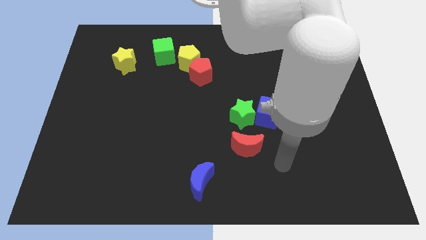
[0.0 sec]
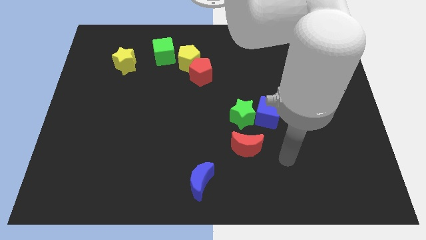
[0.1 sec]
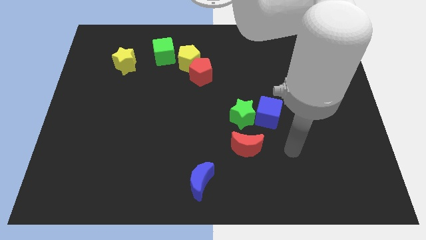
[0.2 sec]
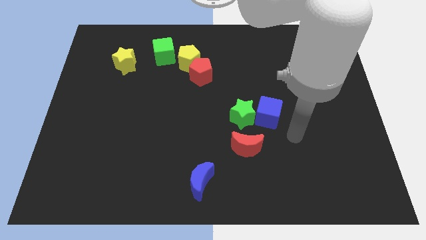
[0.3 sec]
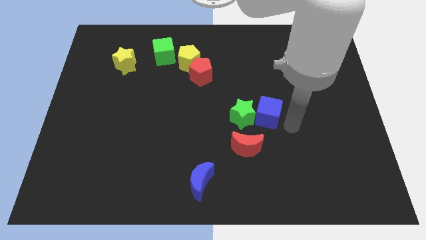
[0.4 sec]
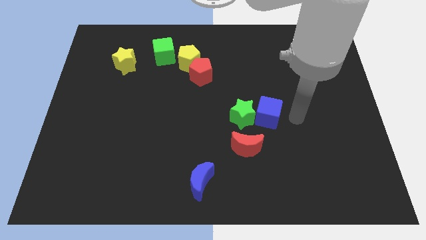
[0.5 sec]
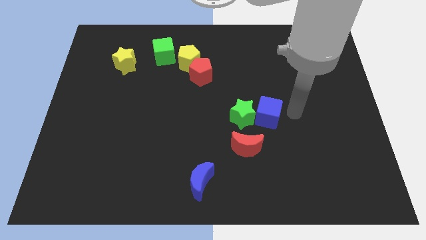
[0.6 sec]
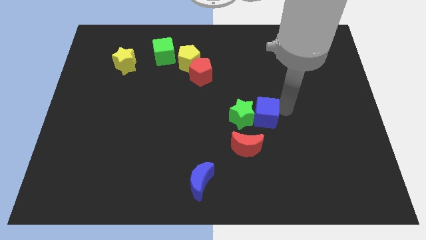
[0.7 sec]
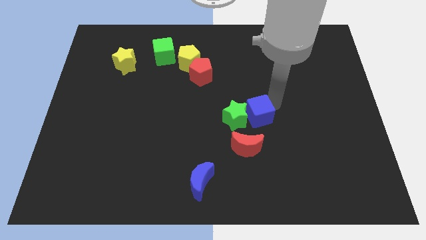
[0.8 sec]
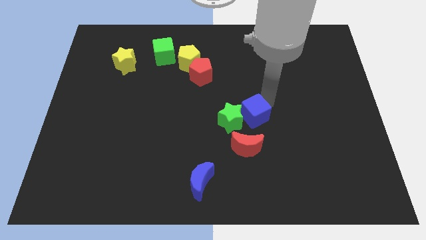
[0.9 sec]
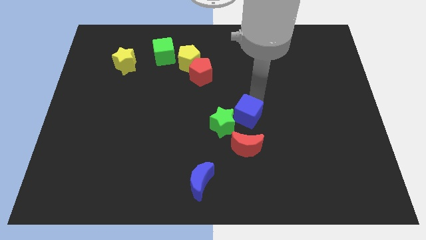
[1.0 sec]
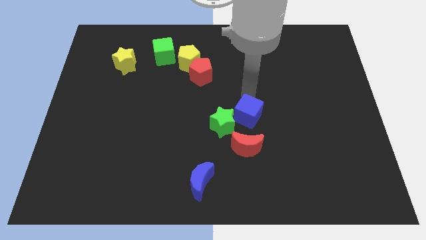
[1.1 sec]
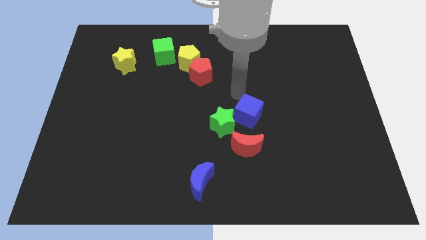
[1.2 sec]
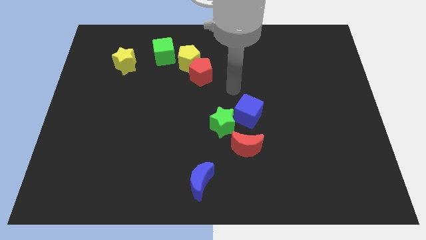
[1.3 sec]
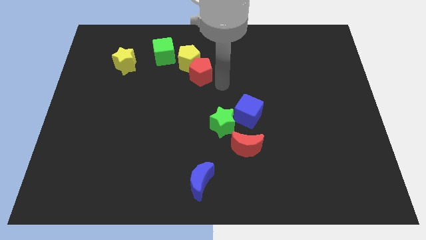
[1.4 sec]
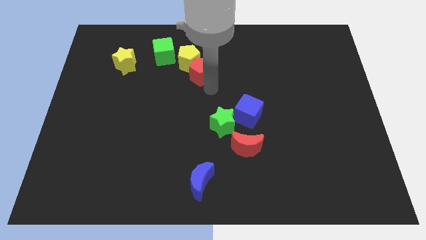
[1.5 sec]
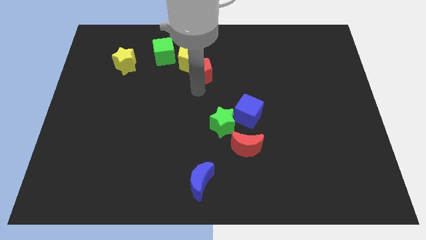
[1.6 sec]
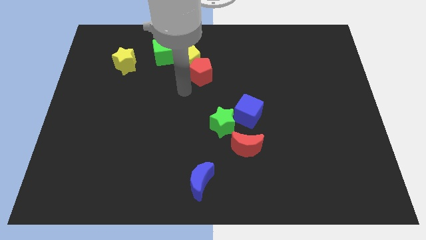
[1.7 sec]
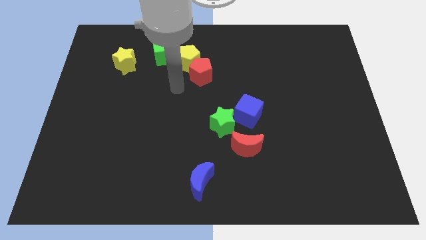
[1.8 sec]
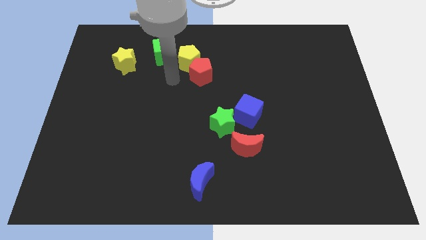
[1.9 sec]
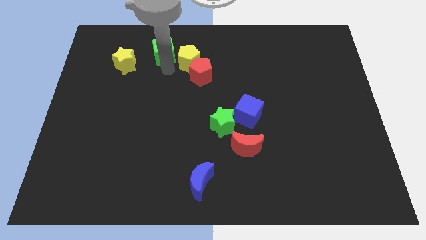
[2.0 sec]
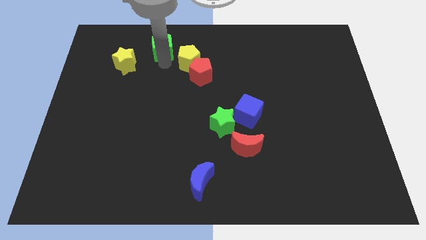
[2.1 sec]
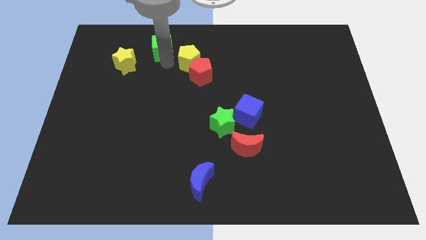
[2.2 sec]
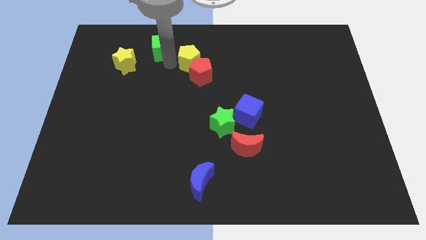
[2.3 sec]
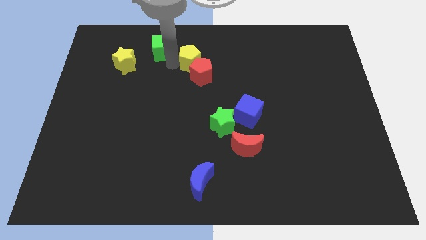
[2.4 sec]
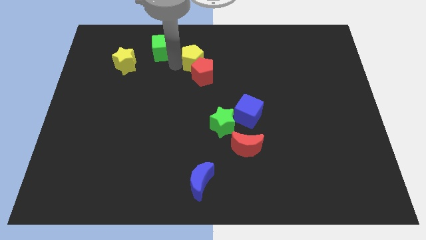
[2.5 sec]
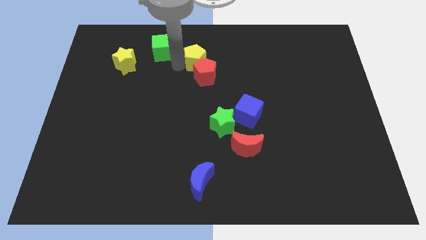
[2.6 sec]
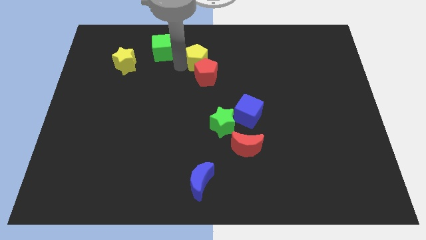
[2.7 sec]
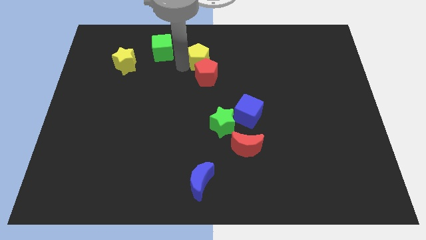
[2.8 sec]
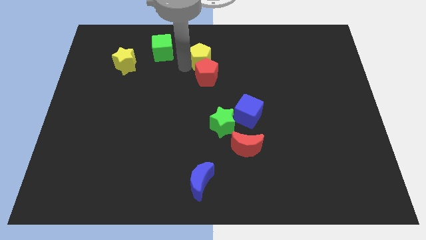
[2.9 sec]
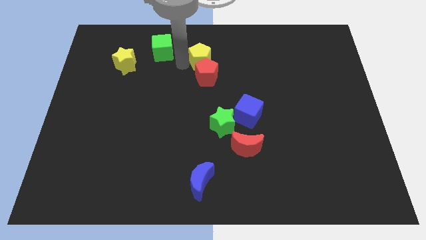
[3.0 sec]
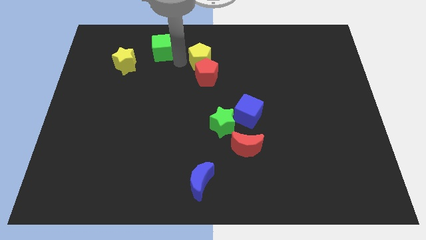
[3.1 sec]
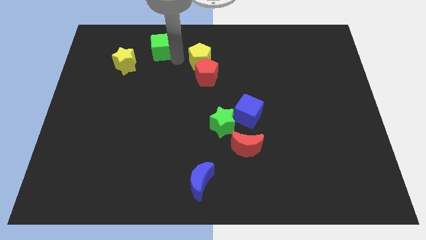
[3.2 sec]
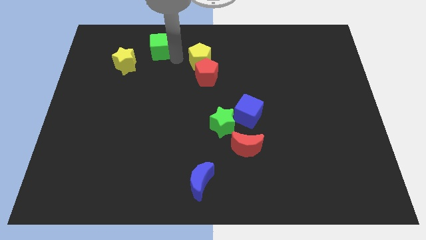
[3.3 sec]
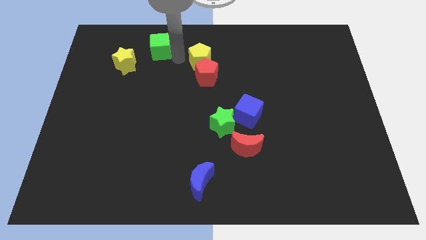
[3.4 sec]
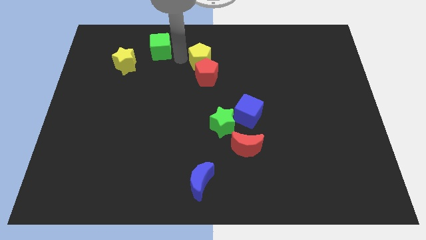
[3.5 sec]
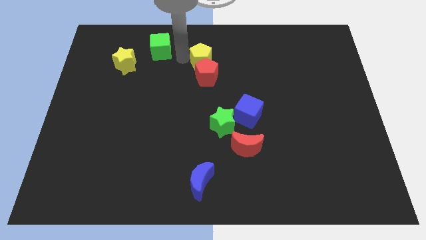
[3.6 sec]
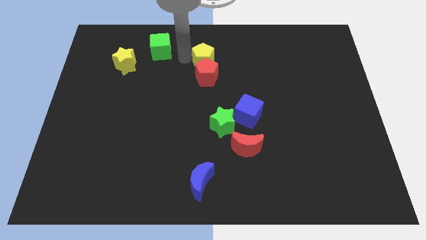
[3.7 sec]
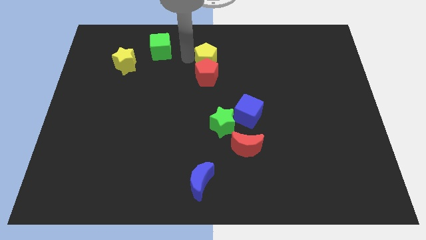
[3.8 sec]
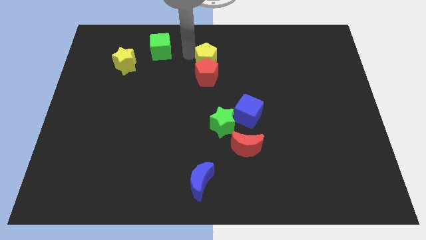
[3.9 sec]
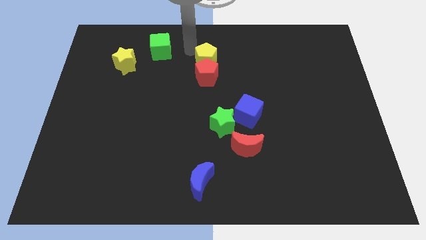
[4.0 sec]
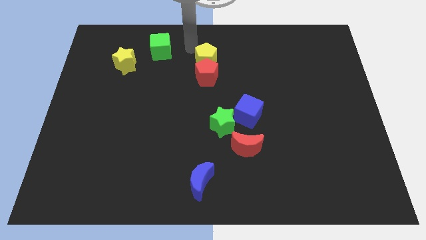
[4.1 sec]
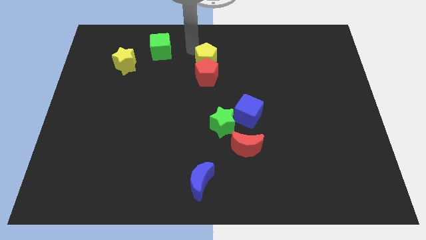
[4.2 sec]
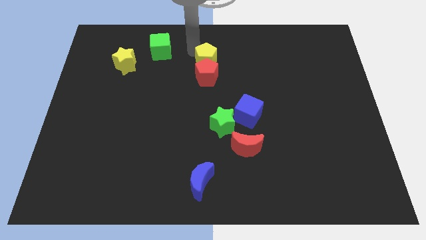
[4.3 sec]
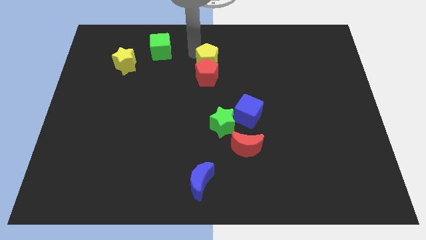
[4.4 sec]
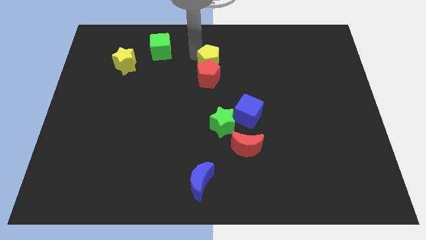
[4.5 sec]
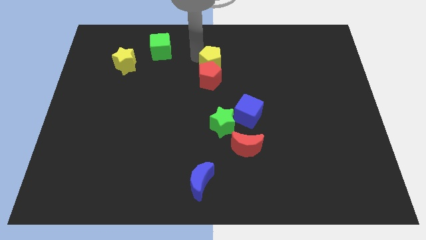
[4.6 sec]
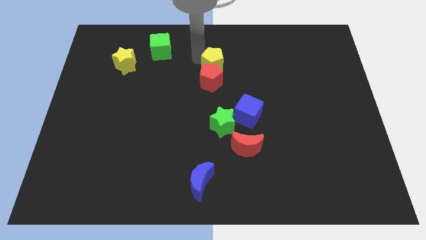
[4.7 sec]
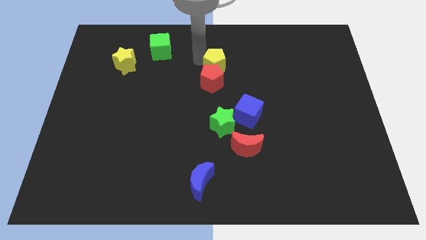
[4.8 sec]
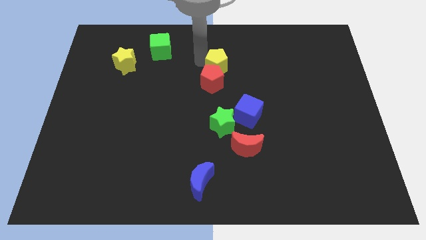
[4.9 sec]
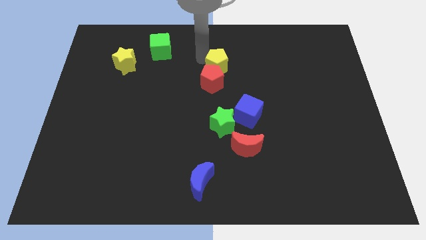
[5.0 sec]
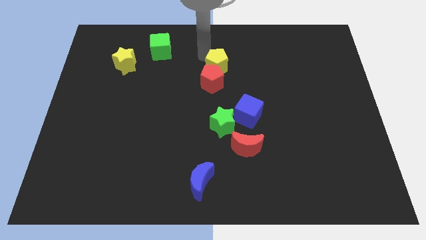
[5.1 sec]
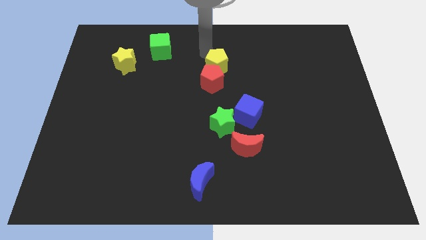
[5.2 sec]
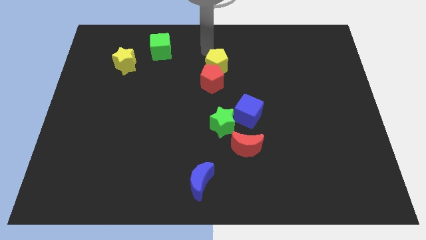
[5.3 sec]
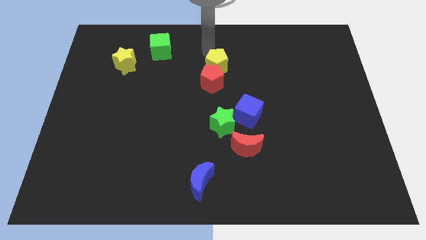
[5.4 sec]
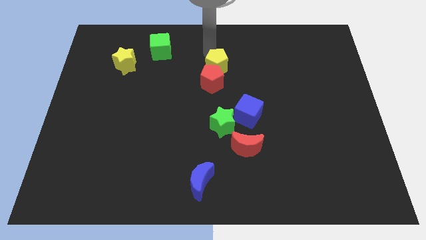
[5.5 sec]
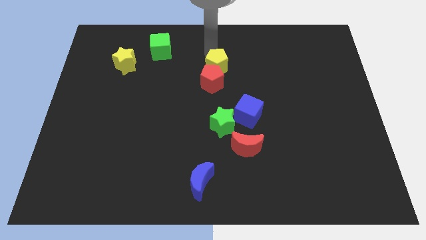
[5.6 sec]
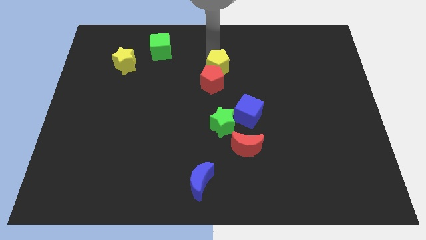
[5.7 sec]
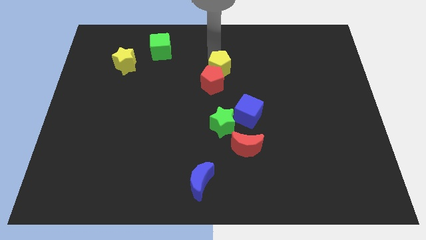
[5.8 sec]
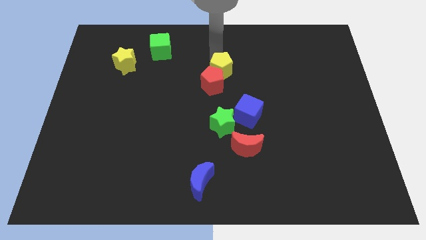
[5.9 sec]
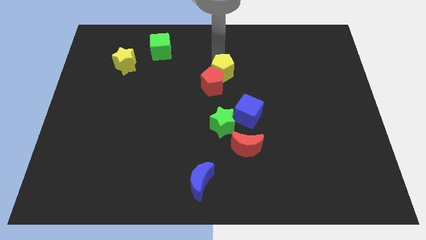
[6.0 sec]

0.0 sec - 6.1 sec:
put the yellow pentagon to the top of the green star
